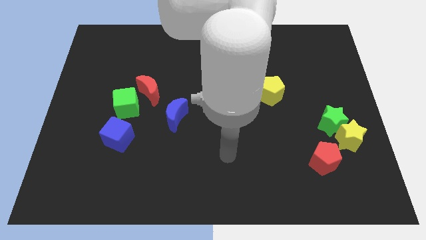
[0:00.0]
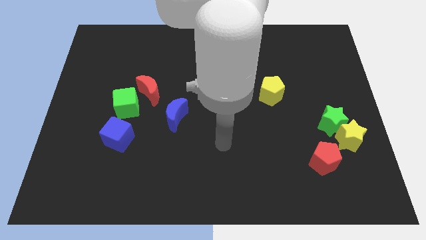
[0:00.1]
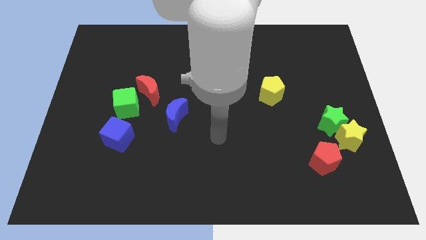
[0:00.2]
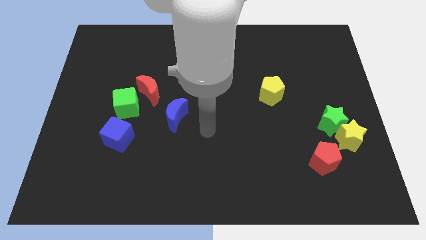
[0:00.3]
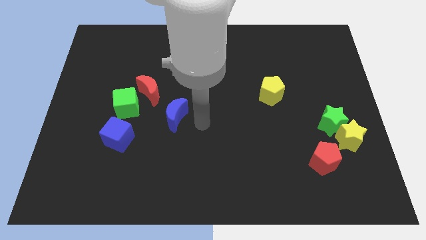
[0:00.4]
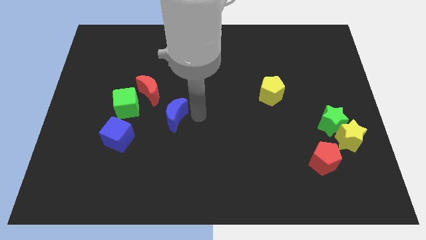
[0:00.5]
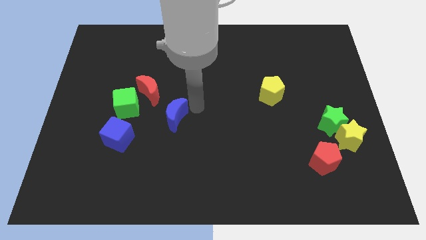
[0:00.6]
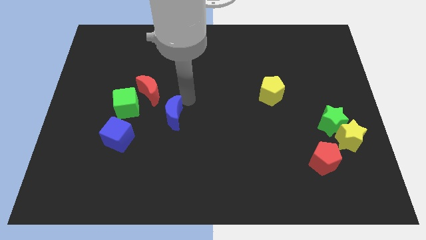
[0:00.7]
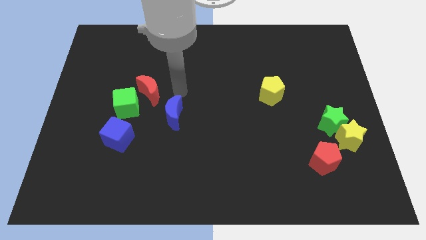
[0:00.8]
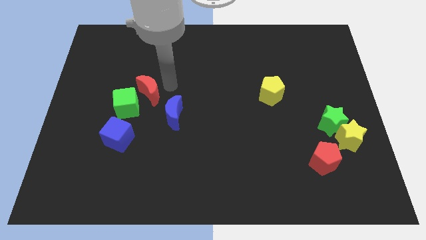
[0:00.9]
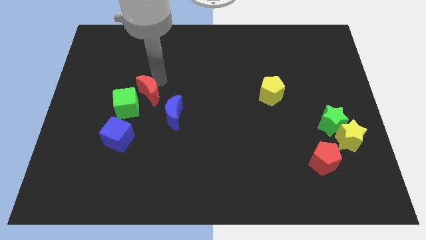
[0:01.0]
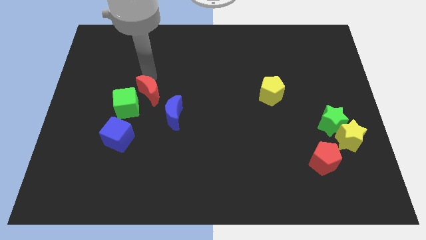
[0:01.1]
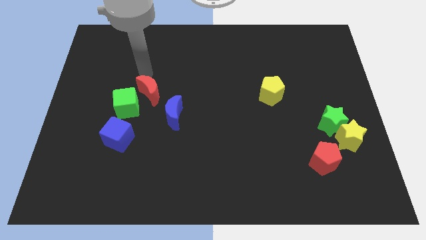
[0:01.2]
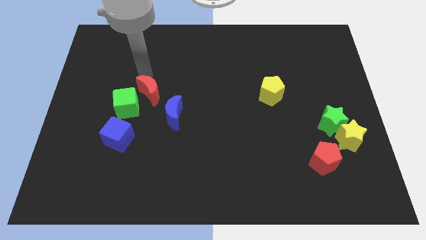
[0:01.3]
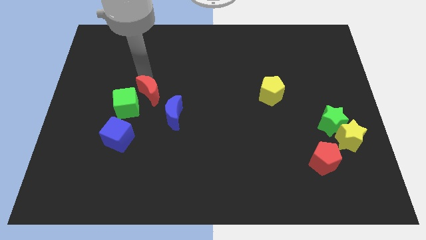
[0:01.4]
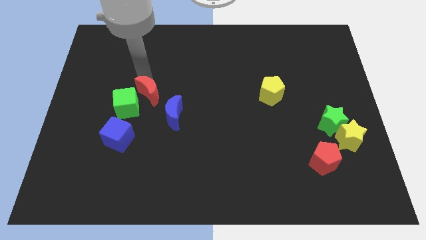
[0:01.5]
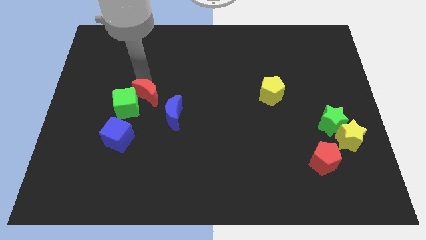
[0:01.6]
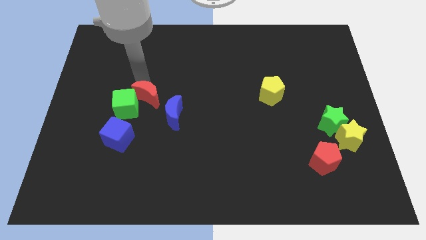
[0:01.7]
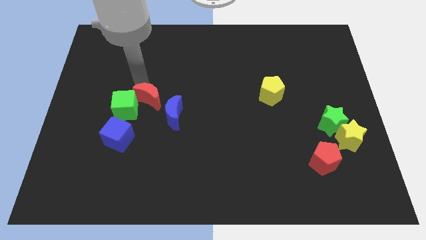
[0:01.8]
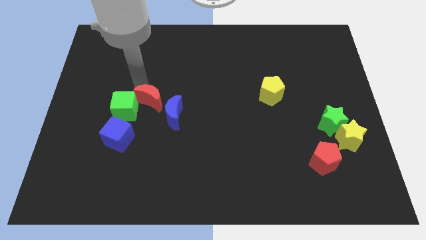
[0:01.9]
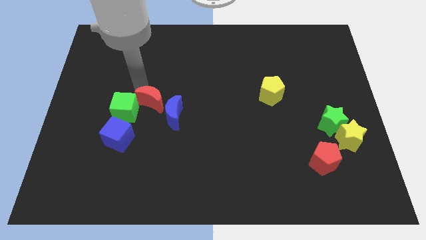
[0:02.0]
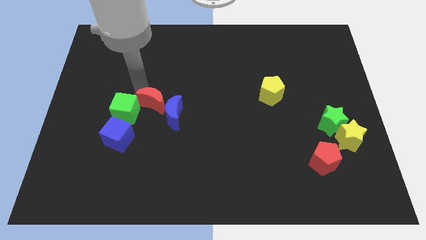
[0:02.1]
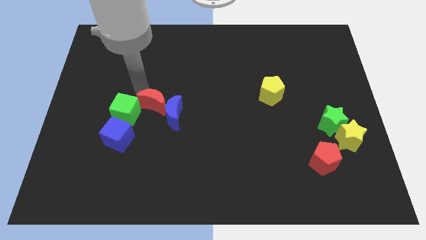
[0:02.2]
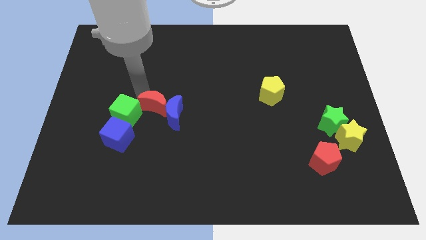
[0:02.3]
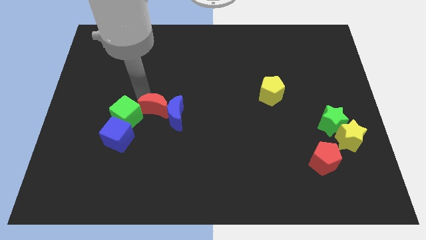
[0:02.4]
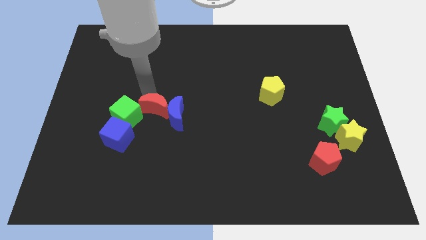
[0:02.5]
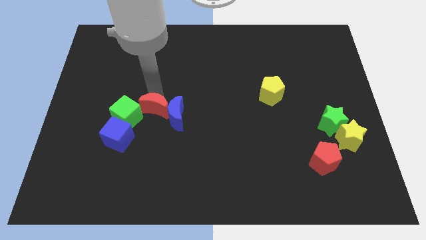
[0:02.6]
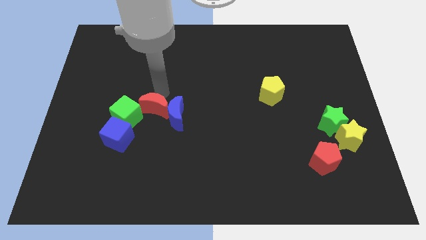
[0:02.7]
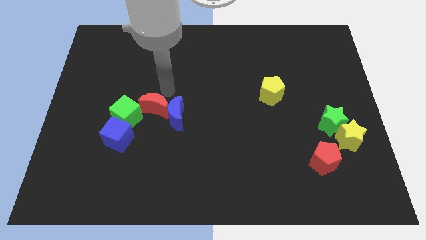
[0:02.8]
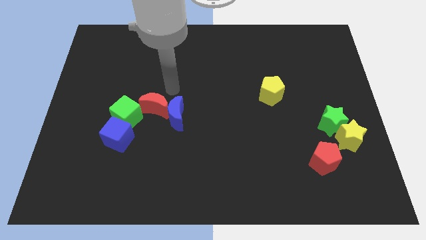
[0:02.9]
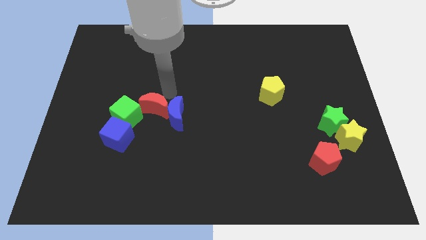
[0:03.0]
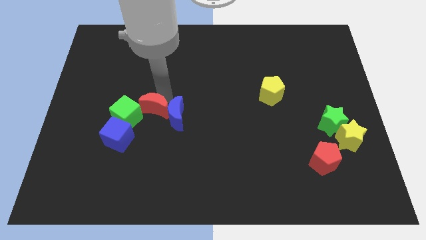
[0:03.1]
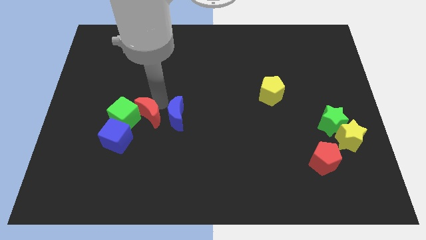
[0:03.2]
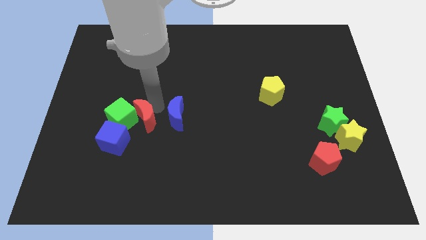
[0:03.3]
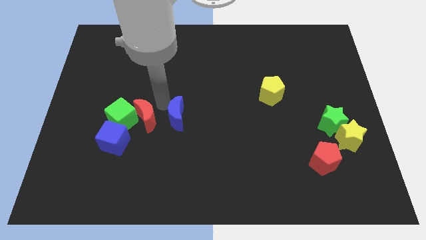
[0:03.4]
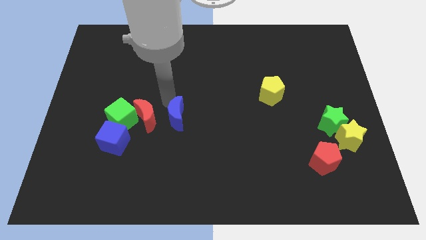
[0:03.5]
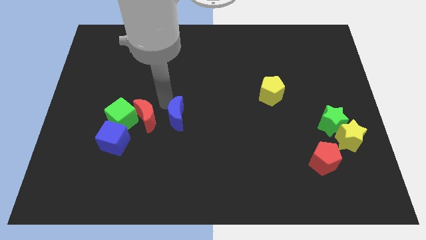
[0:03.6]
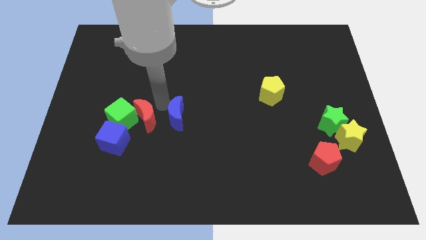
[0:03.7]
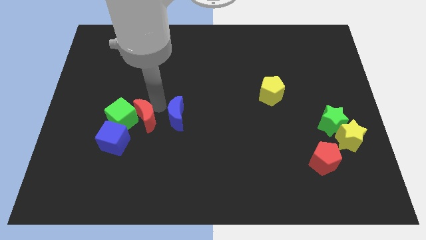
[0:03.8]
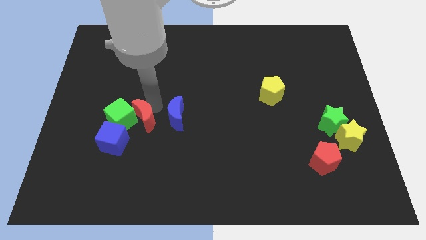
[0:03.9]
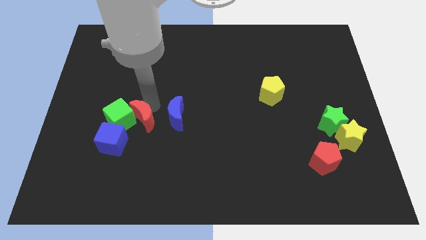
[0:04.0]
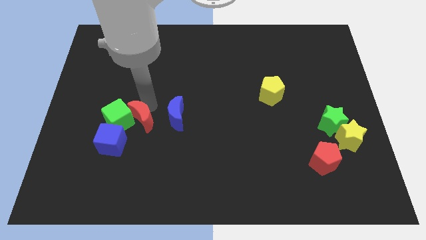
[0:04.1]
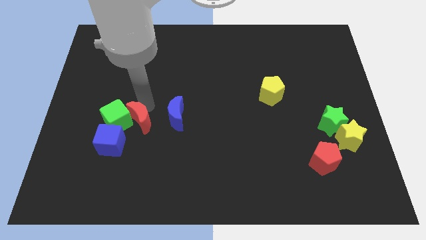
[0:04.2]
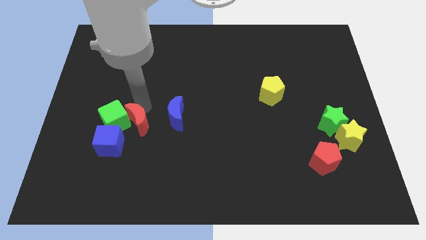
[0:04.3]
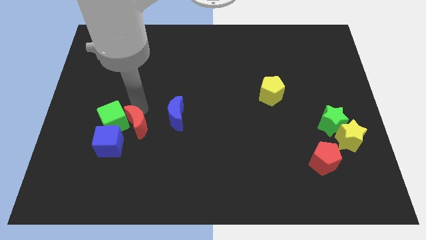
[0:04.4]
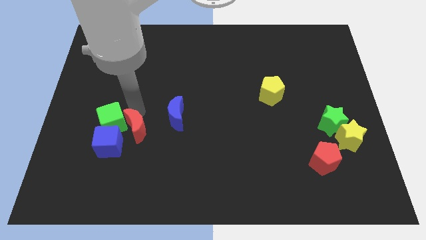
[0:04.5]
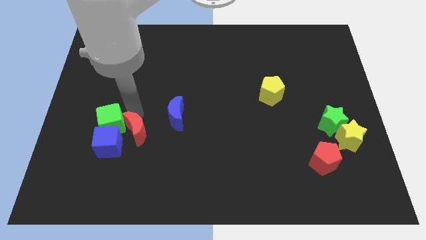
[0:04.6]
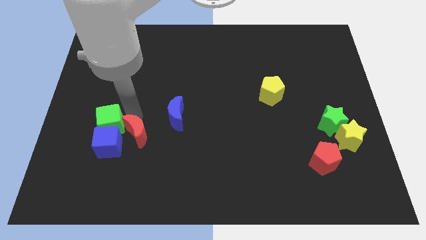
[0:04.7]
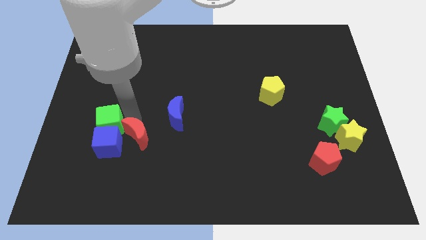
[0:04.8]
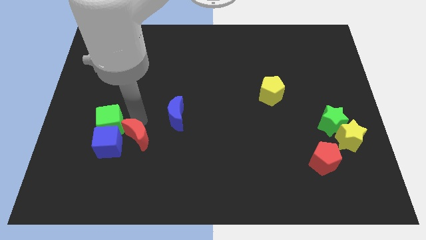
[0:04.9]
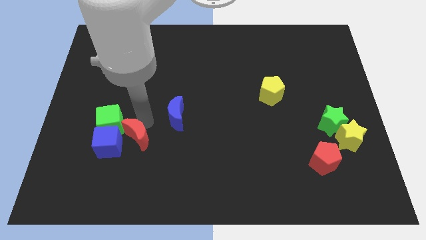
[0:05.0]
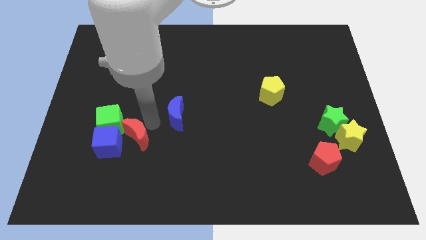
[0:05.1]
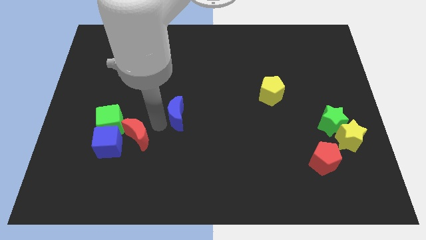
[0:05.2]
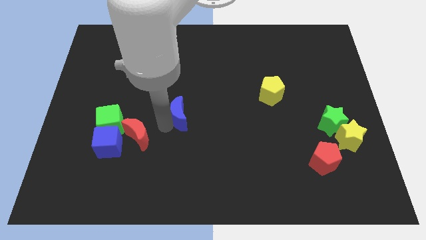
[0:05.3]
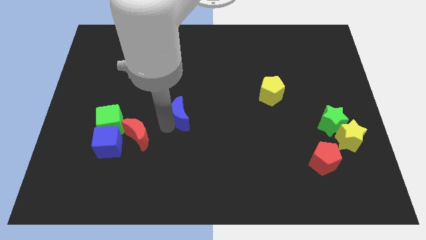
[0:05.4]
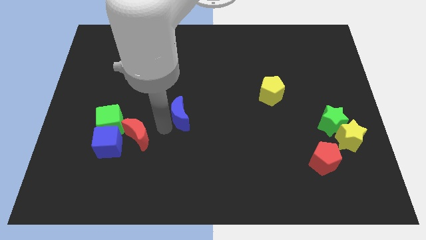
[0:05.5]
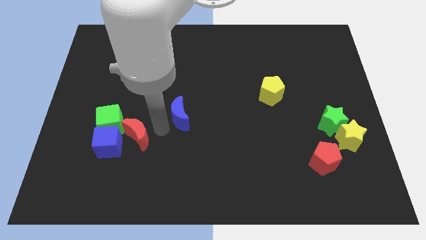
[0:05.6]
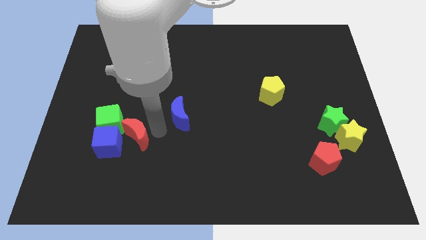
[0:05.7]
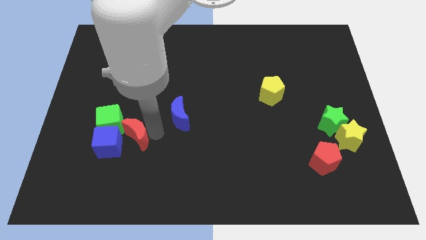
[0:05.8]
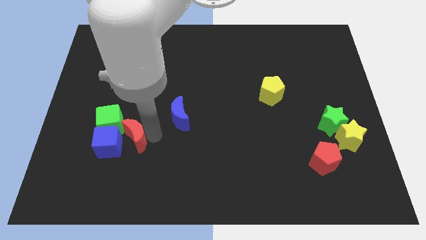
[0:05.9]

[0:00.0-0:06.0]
put the red moon next to the blue cube

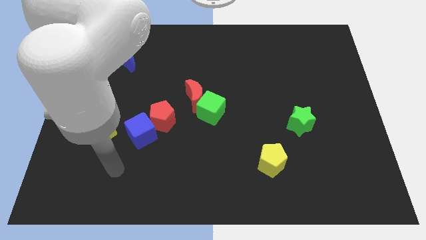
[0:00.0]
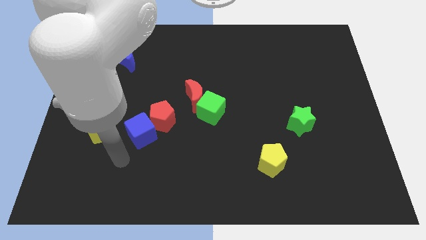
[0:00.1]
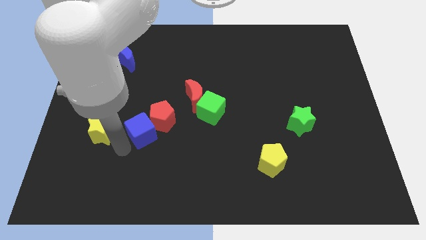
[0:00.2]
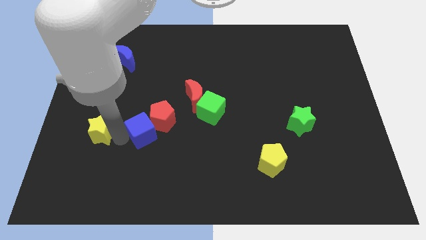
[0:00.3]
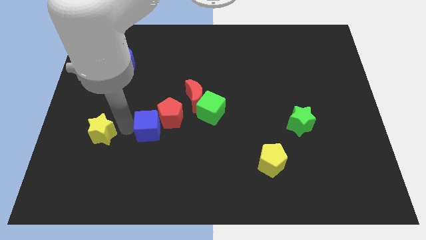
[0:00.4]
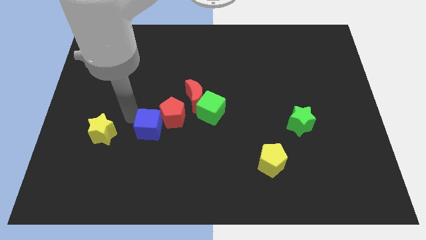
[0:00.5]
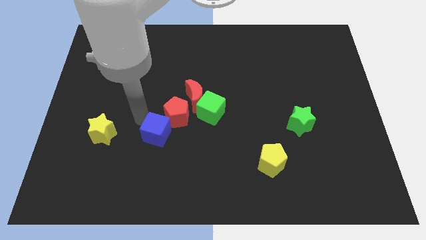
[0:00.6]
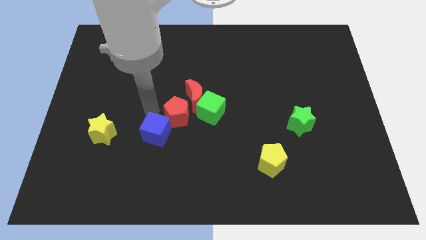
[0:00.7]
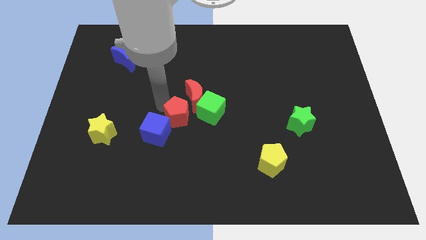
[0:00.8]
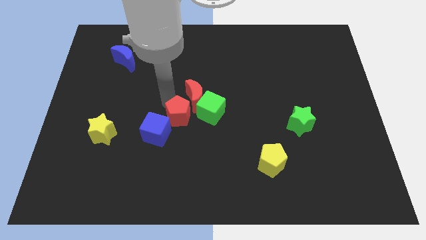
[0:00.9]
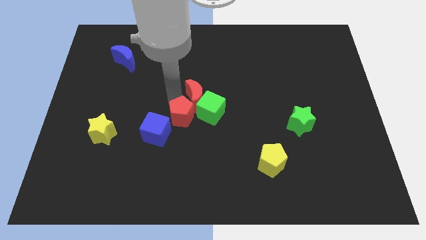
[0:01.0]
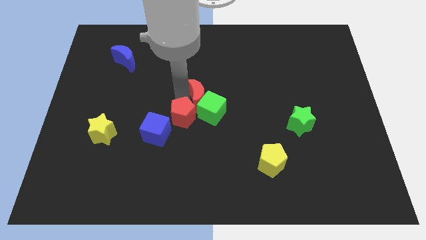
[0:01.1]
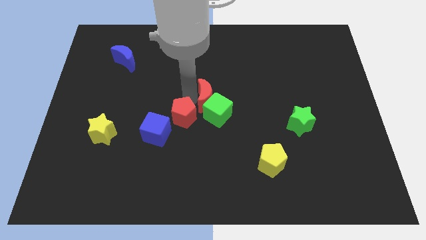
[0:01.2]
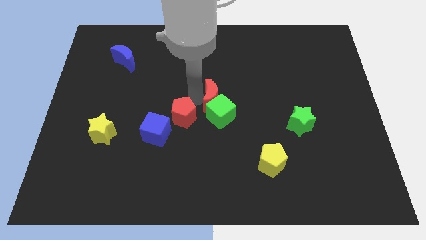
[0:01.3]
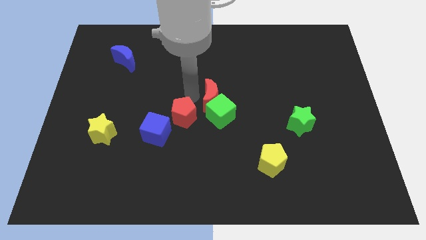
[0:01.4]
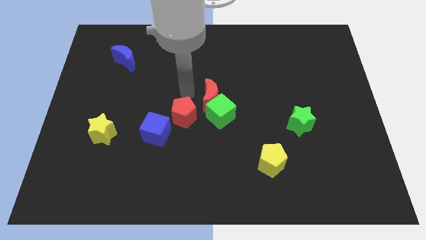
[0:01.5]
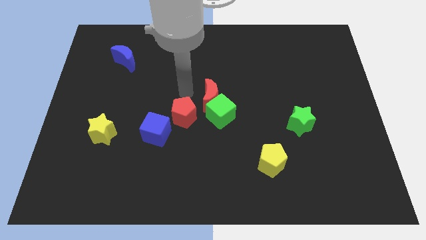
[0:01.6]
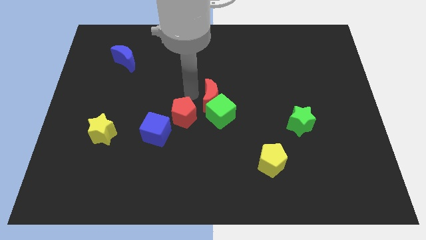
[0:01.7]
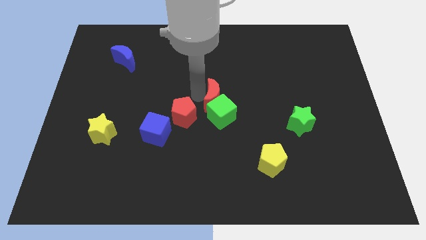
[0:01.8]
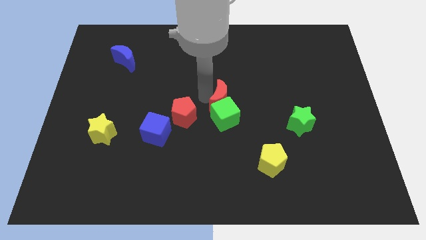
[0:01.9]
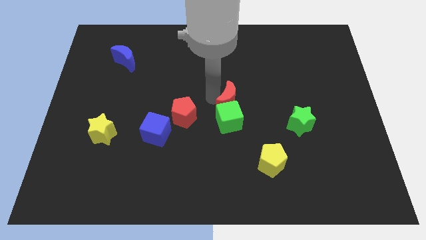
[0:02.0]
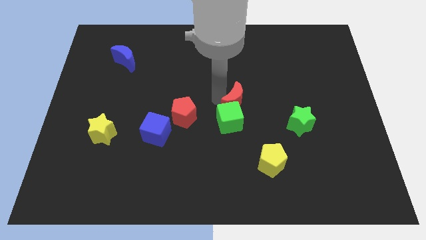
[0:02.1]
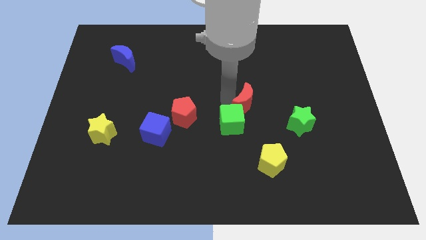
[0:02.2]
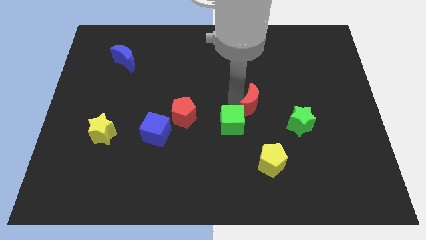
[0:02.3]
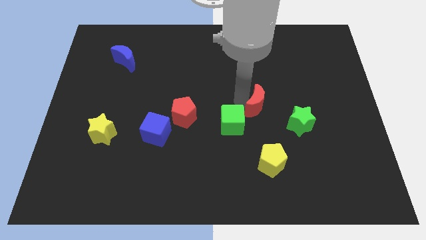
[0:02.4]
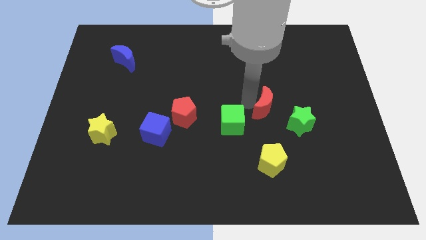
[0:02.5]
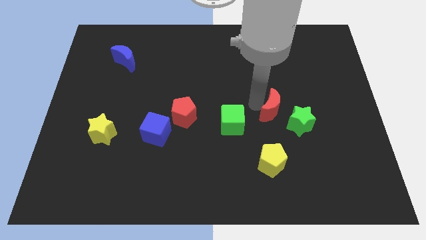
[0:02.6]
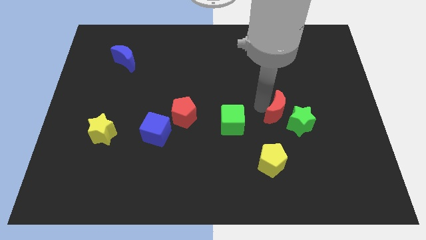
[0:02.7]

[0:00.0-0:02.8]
move the red moon next to the green star
